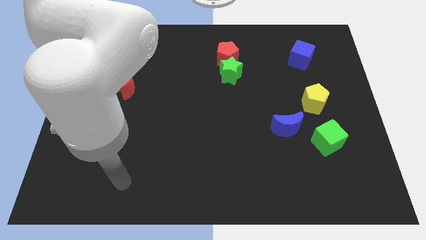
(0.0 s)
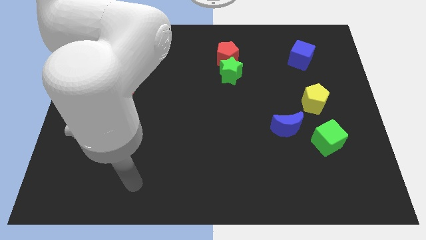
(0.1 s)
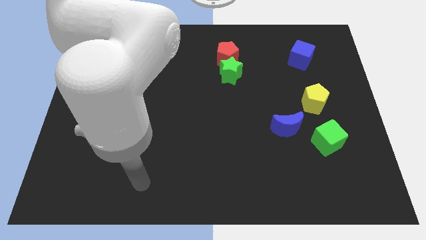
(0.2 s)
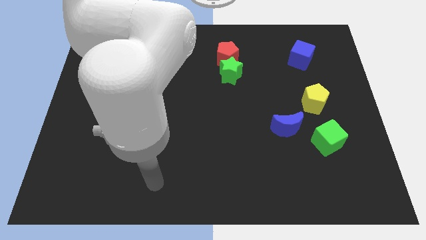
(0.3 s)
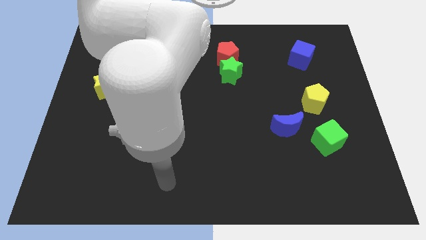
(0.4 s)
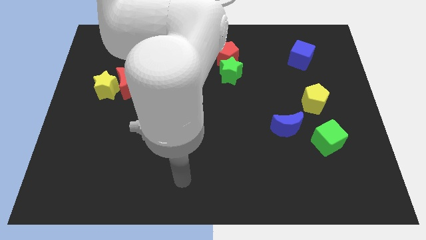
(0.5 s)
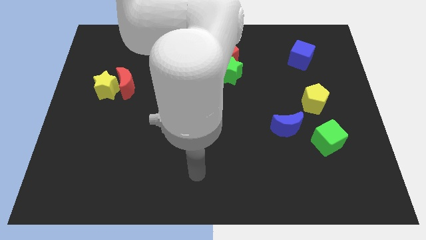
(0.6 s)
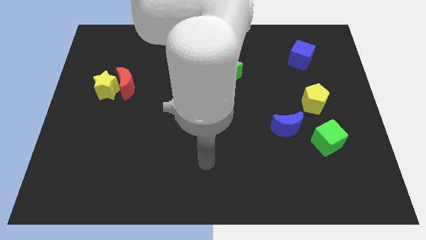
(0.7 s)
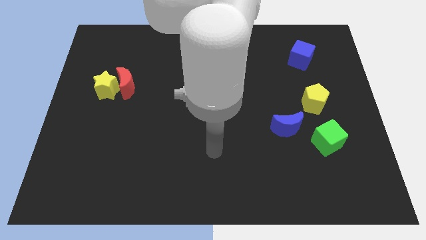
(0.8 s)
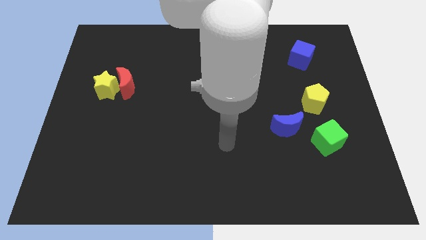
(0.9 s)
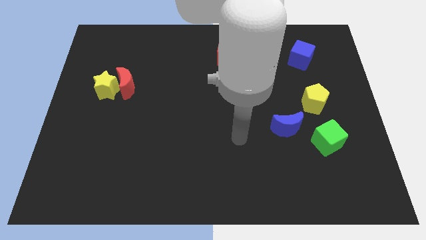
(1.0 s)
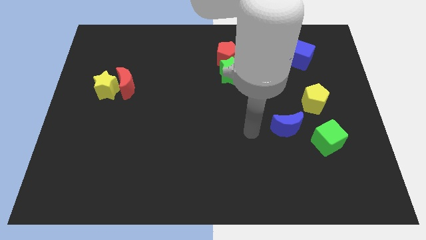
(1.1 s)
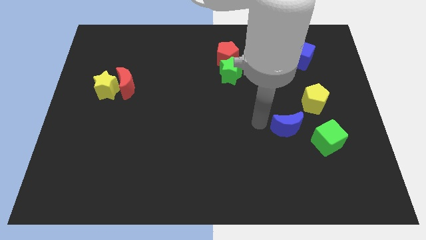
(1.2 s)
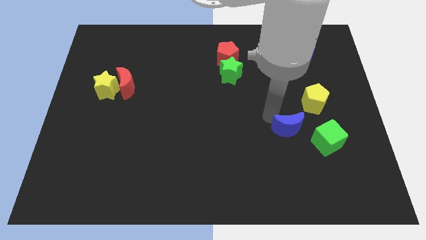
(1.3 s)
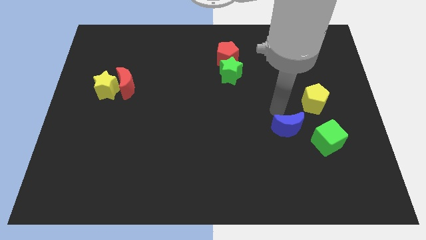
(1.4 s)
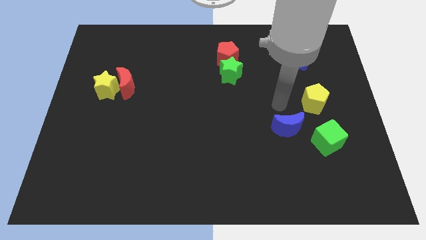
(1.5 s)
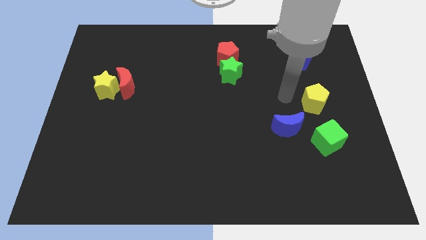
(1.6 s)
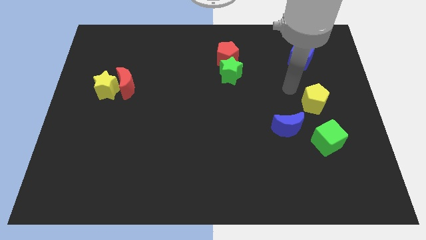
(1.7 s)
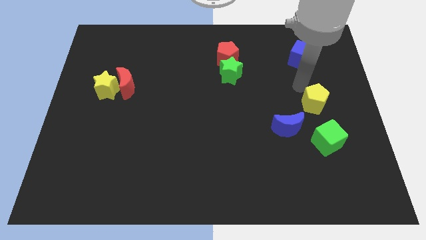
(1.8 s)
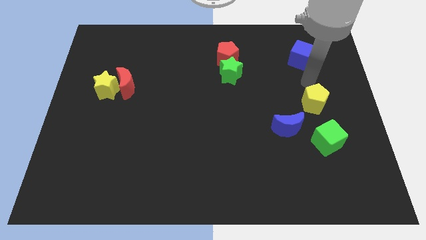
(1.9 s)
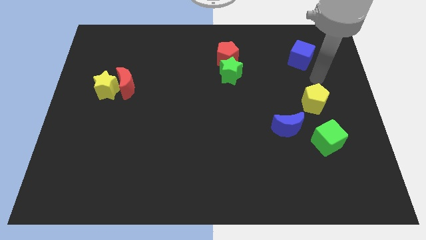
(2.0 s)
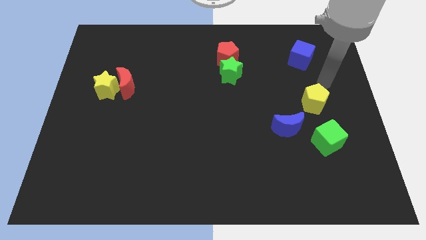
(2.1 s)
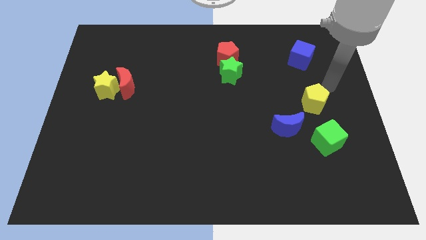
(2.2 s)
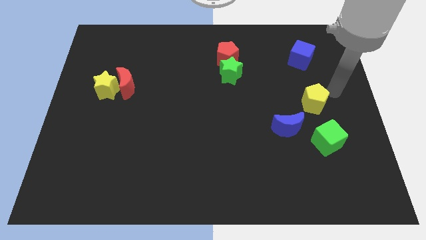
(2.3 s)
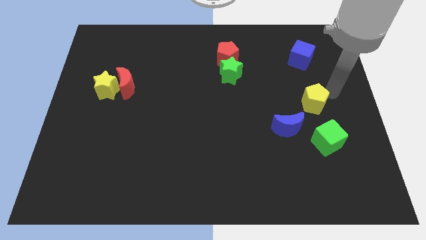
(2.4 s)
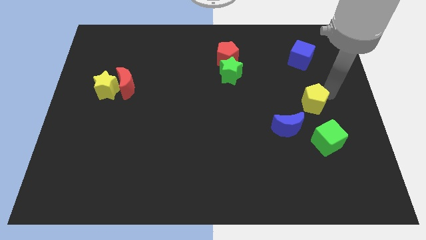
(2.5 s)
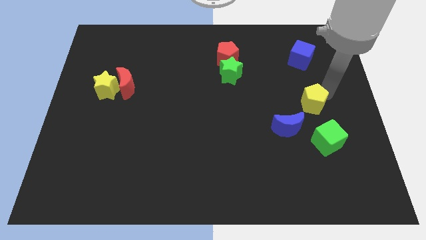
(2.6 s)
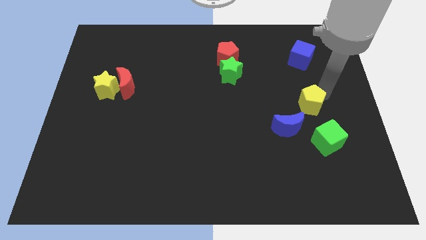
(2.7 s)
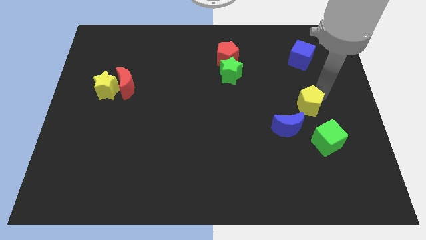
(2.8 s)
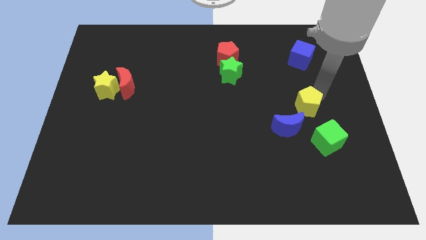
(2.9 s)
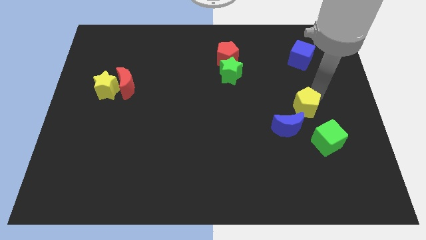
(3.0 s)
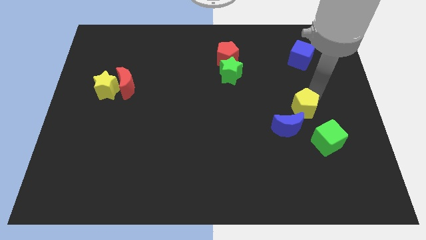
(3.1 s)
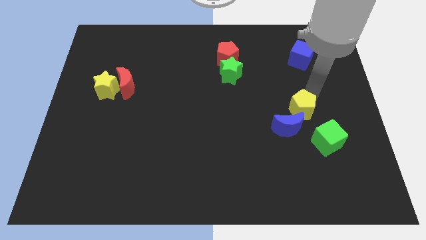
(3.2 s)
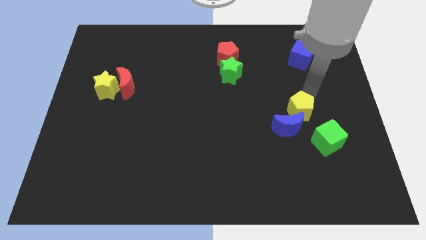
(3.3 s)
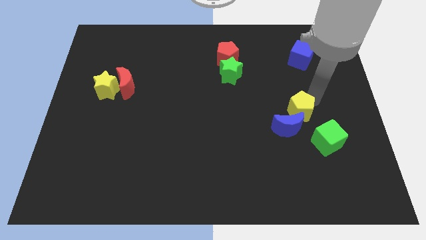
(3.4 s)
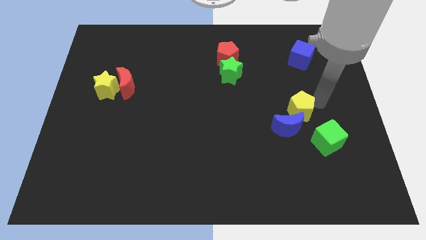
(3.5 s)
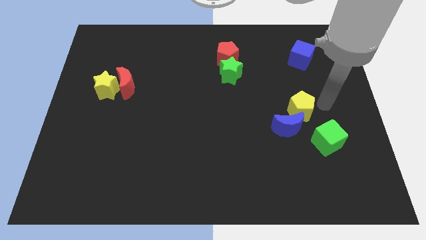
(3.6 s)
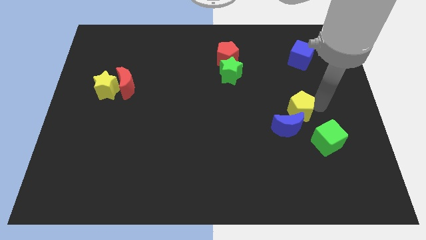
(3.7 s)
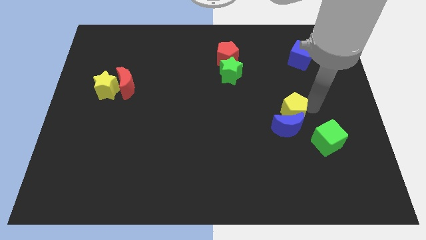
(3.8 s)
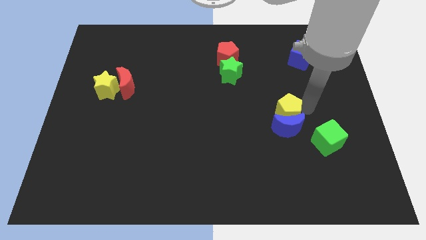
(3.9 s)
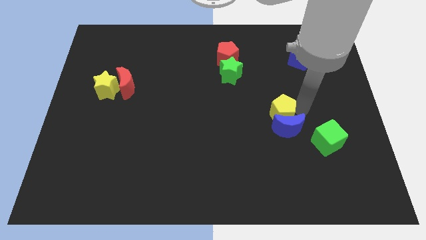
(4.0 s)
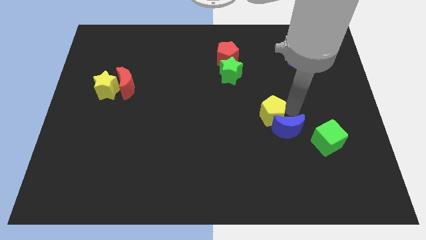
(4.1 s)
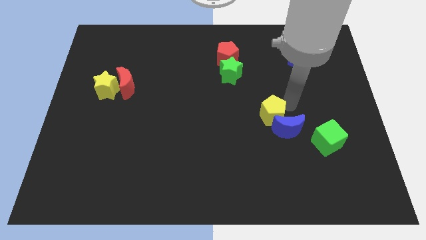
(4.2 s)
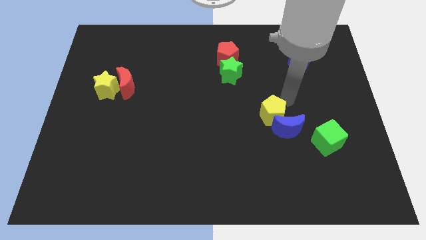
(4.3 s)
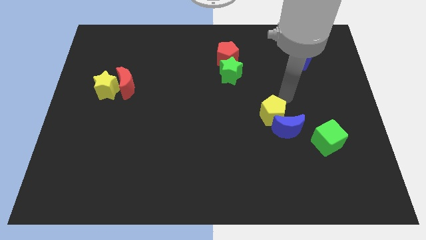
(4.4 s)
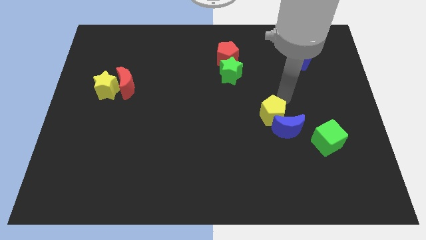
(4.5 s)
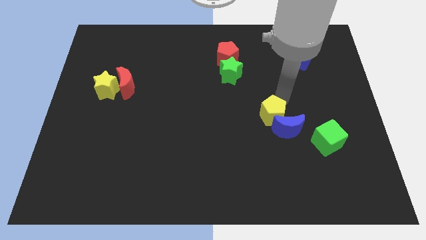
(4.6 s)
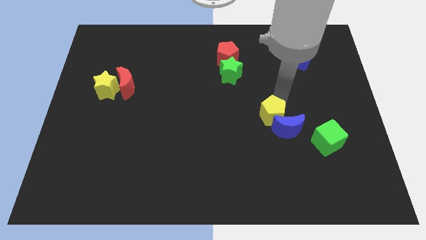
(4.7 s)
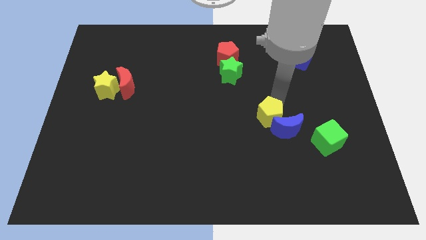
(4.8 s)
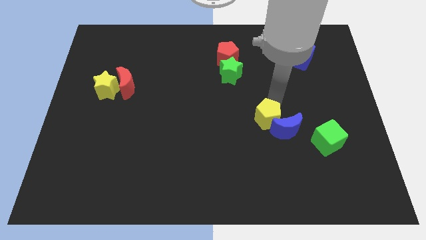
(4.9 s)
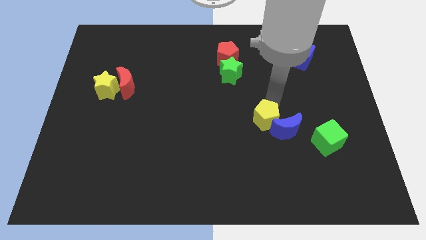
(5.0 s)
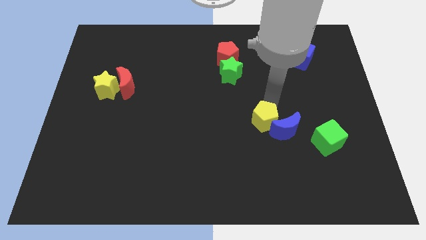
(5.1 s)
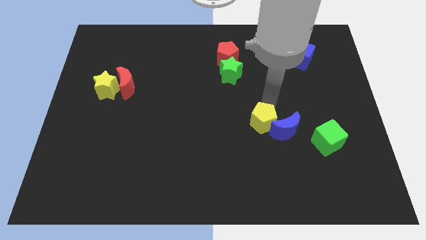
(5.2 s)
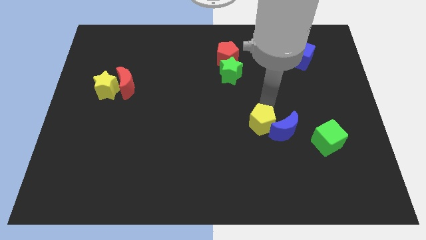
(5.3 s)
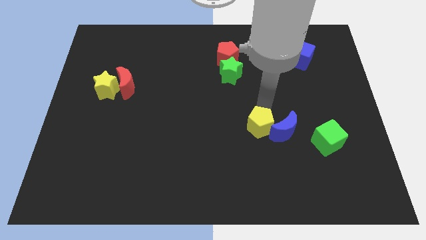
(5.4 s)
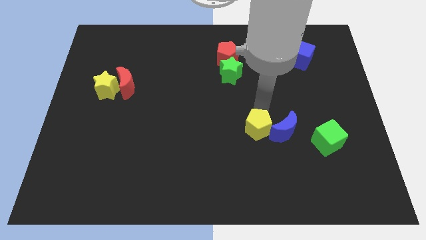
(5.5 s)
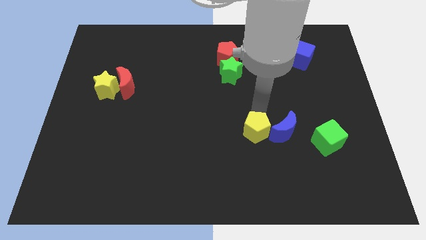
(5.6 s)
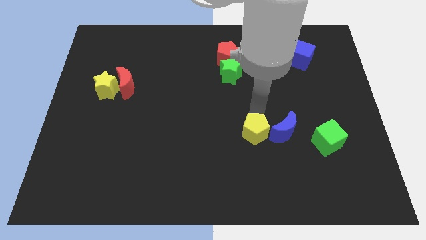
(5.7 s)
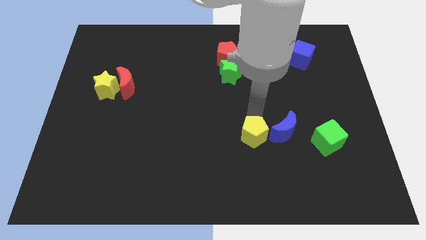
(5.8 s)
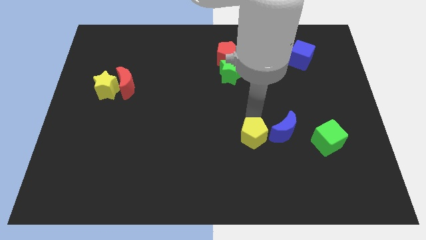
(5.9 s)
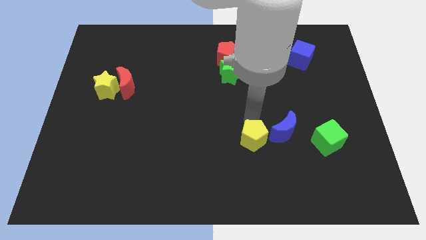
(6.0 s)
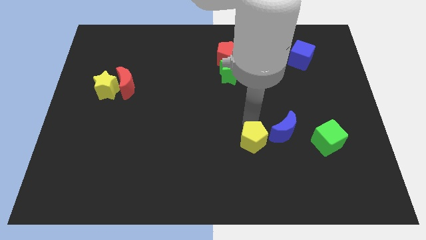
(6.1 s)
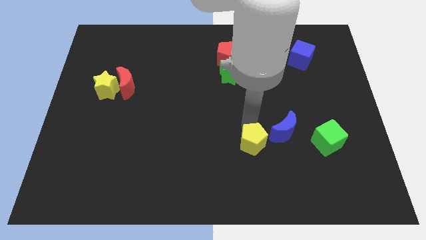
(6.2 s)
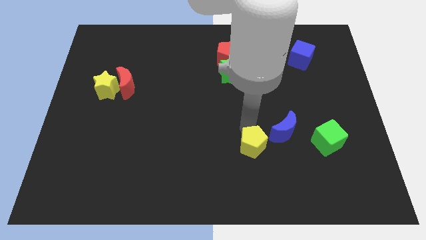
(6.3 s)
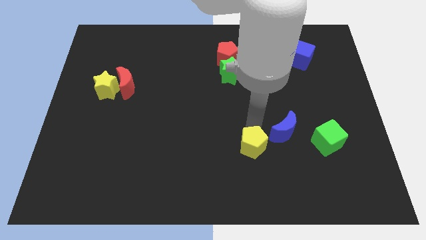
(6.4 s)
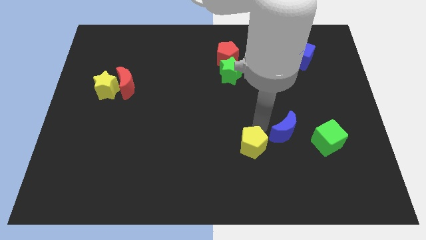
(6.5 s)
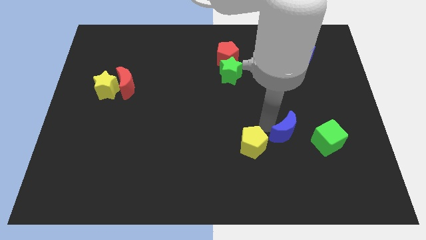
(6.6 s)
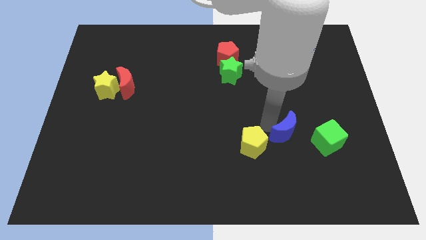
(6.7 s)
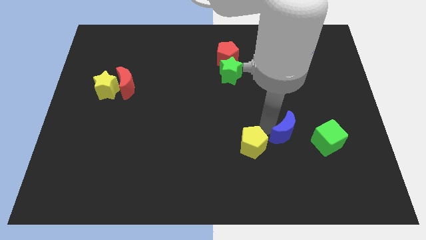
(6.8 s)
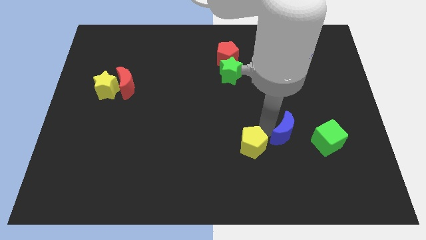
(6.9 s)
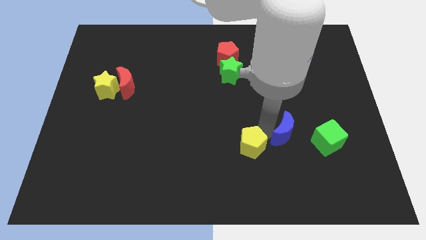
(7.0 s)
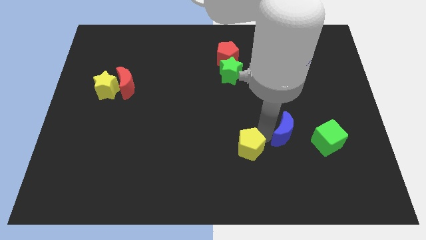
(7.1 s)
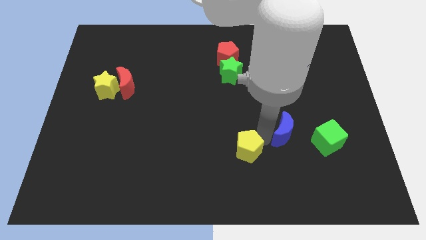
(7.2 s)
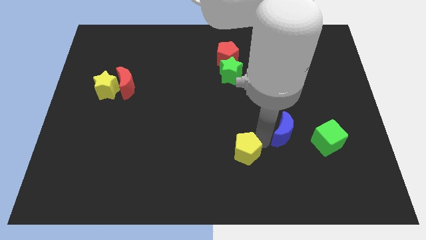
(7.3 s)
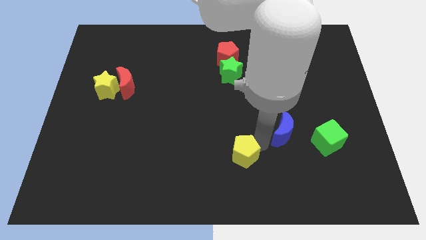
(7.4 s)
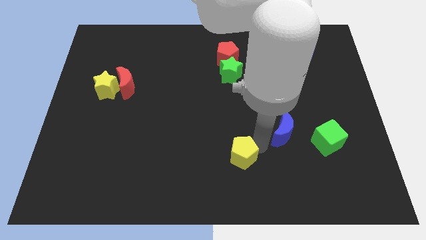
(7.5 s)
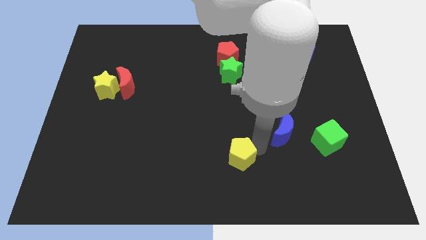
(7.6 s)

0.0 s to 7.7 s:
move the yellow pentagon to the bottom

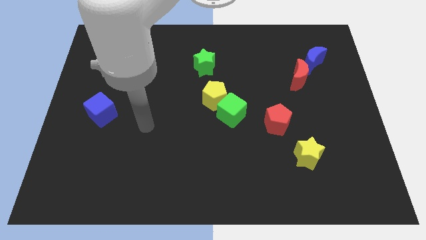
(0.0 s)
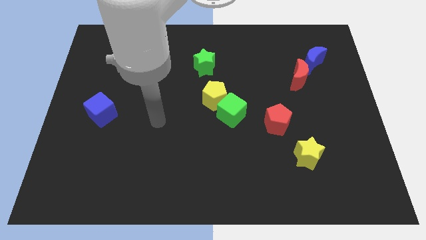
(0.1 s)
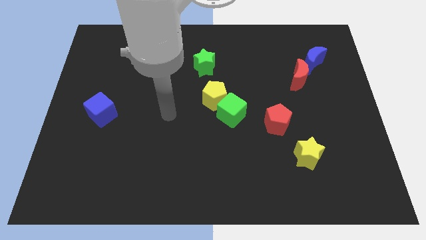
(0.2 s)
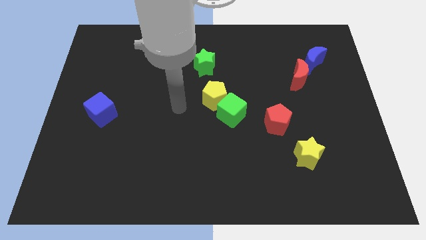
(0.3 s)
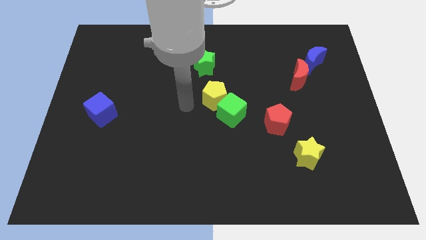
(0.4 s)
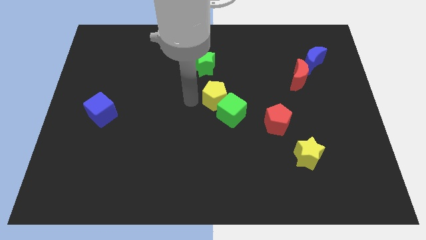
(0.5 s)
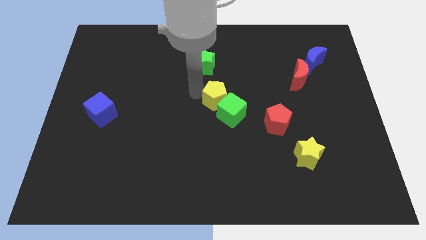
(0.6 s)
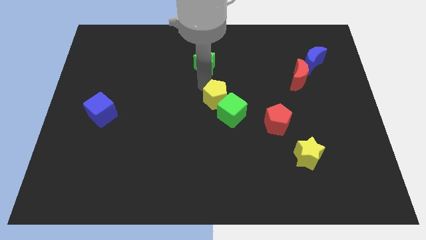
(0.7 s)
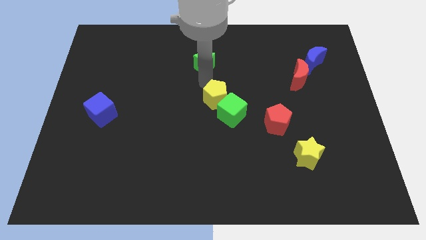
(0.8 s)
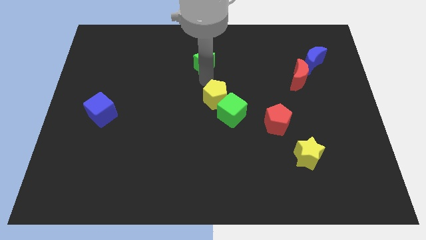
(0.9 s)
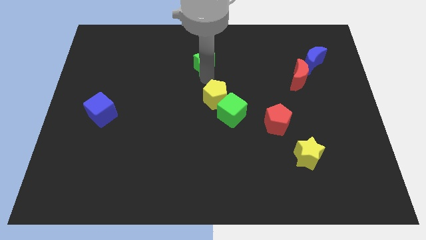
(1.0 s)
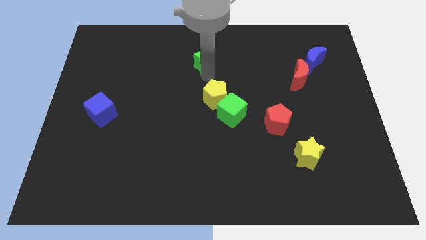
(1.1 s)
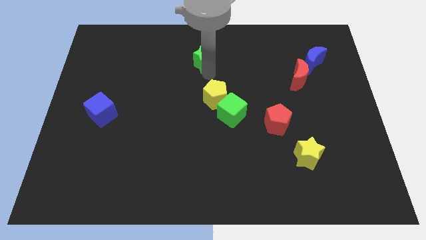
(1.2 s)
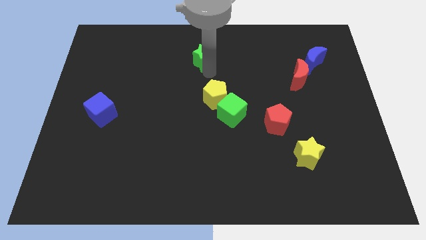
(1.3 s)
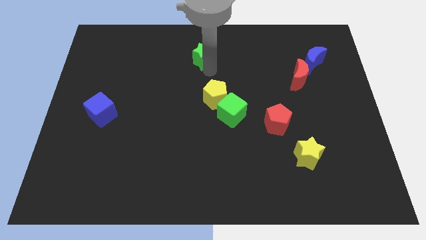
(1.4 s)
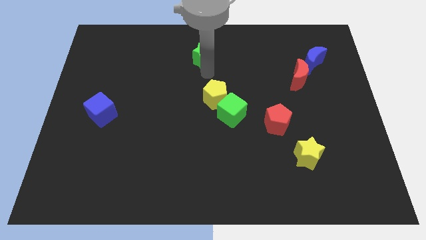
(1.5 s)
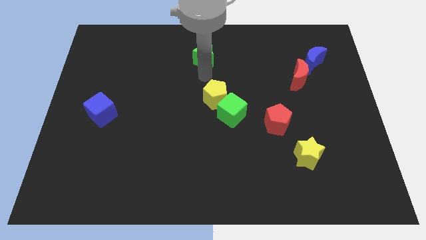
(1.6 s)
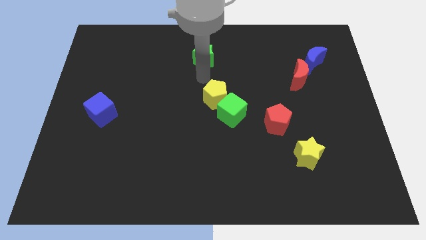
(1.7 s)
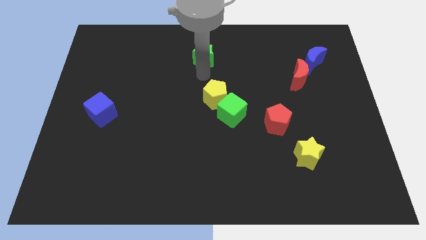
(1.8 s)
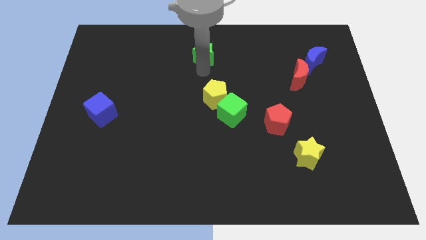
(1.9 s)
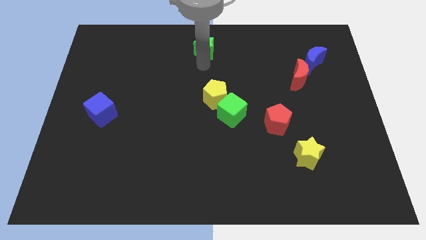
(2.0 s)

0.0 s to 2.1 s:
push the green star to the top
